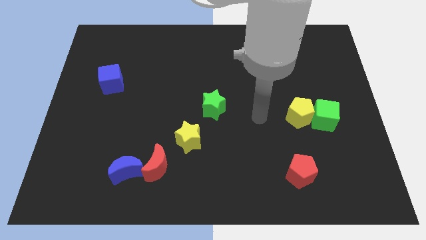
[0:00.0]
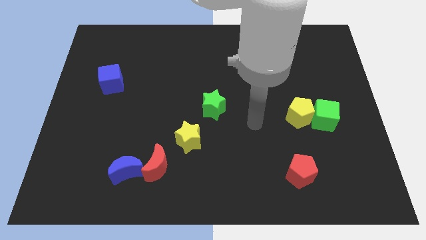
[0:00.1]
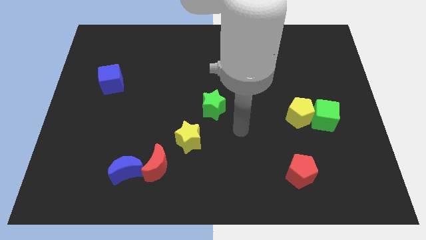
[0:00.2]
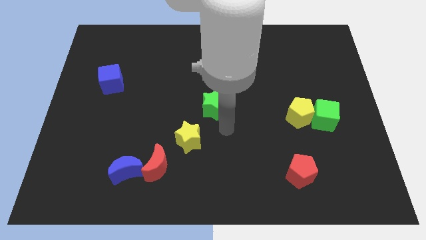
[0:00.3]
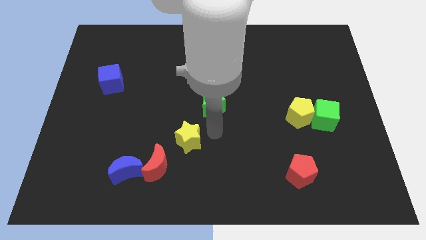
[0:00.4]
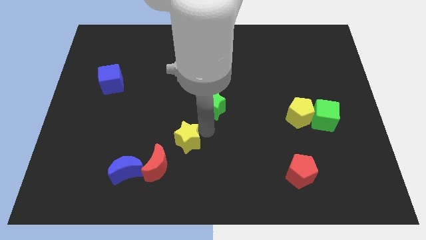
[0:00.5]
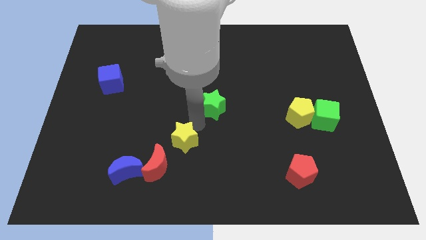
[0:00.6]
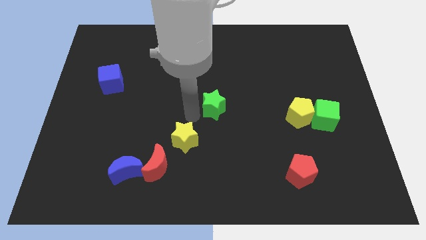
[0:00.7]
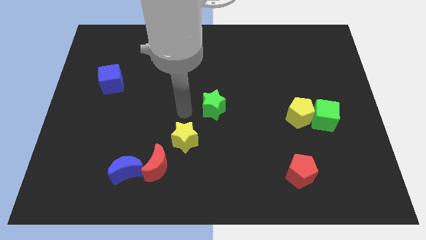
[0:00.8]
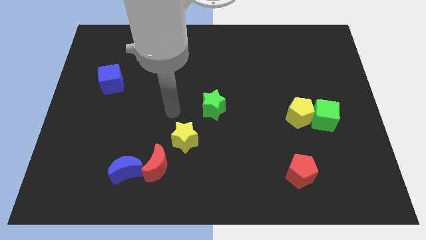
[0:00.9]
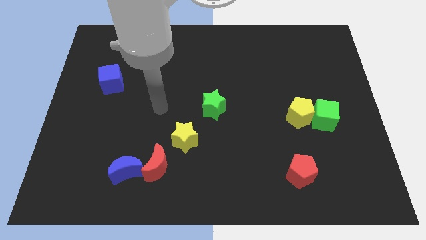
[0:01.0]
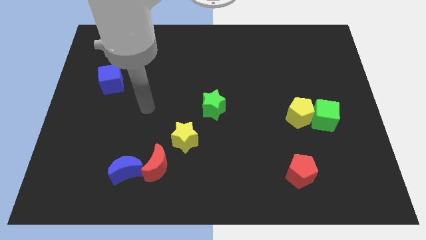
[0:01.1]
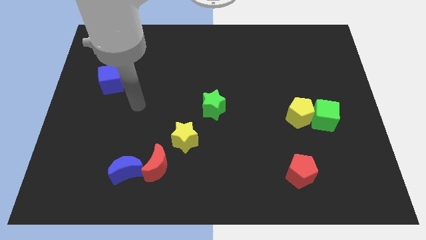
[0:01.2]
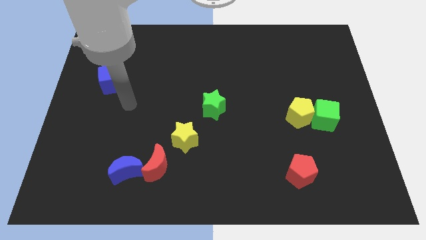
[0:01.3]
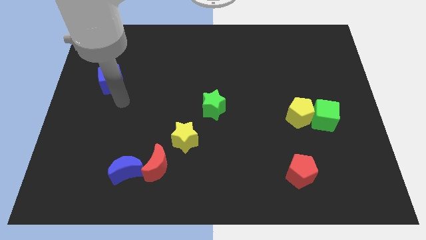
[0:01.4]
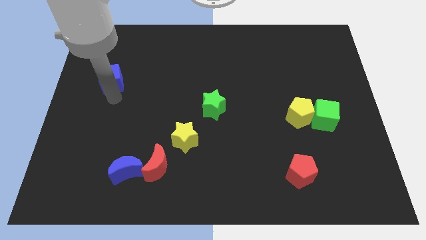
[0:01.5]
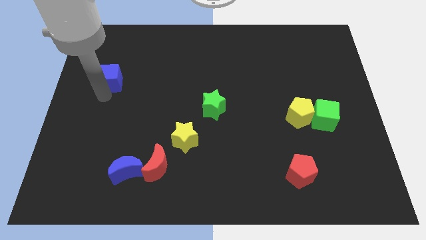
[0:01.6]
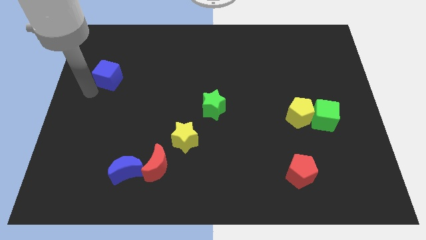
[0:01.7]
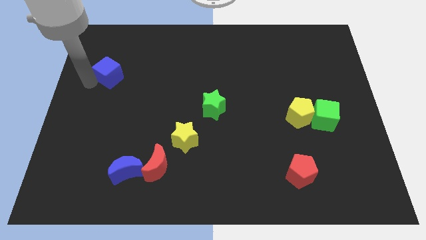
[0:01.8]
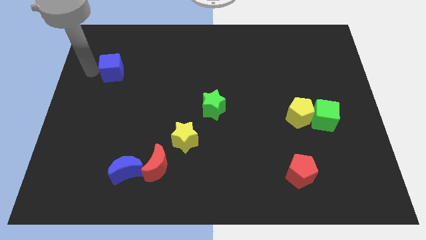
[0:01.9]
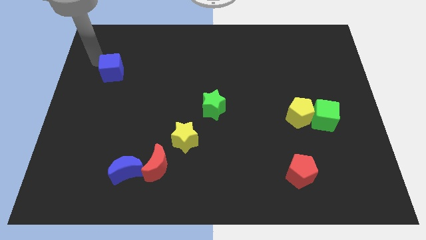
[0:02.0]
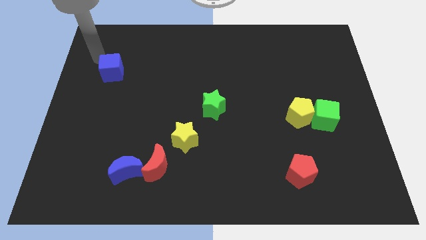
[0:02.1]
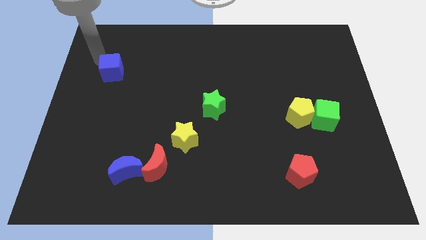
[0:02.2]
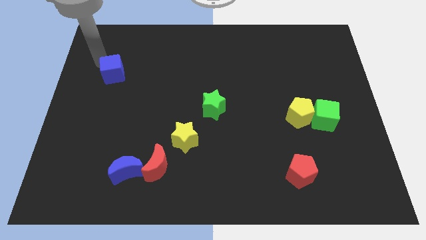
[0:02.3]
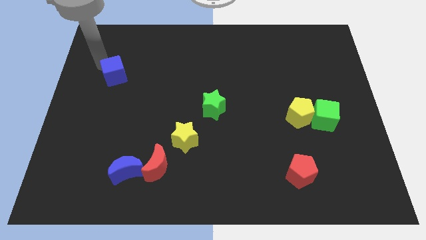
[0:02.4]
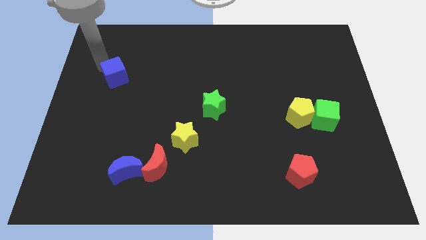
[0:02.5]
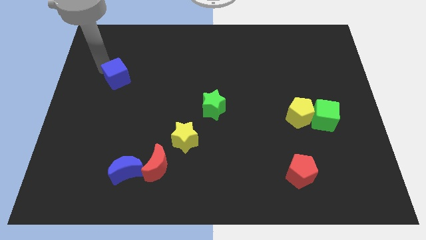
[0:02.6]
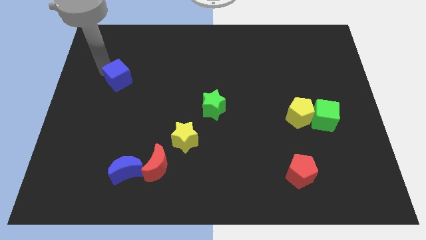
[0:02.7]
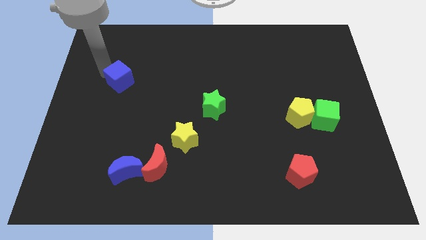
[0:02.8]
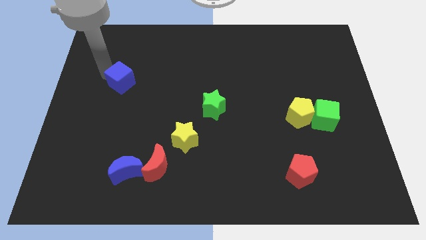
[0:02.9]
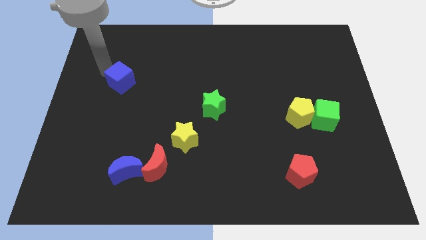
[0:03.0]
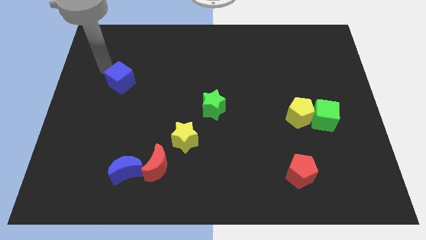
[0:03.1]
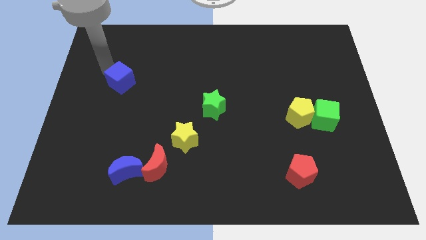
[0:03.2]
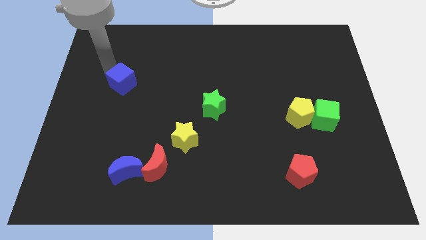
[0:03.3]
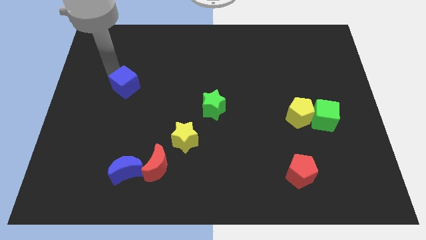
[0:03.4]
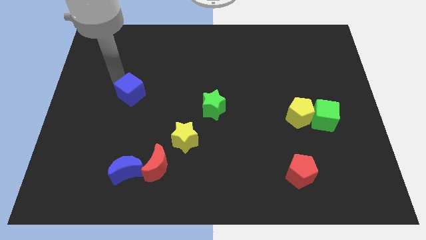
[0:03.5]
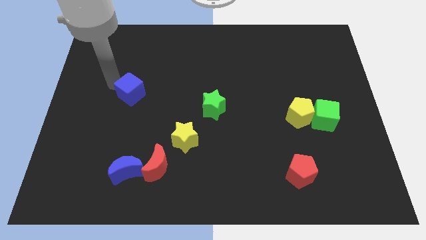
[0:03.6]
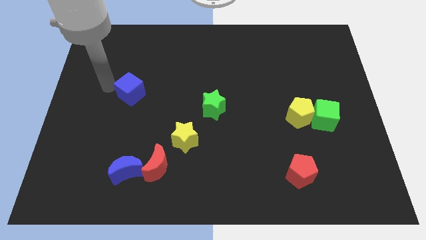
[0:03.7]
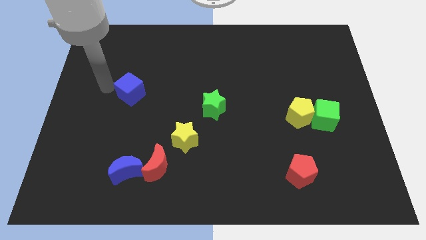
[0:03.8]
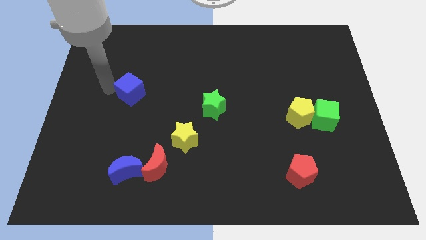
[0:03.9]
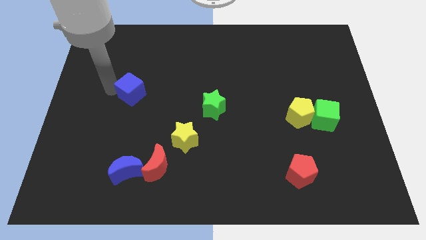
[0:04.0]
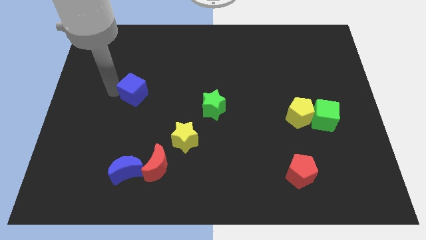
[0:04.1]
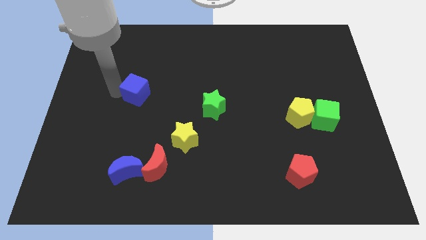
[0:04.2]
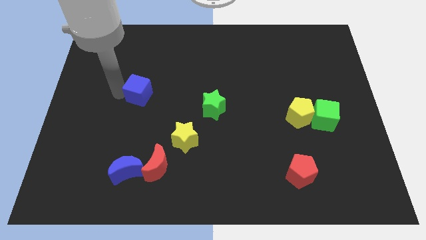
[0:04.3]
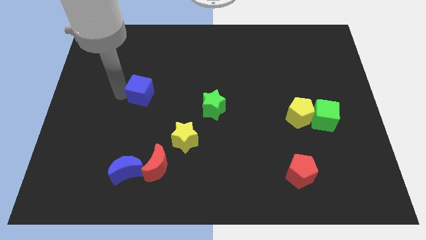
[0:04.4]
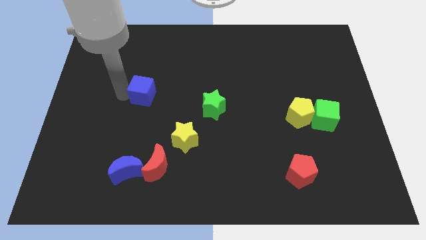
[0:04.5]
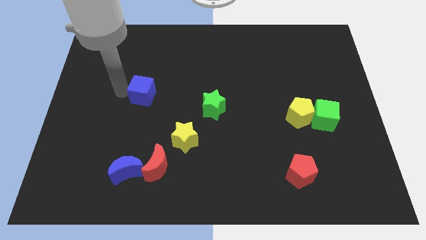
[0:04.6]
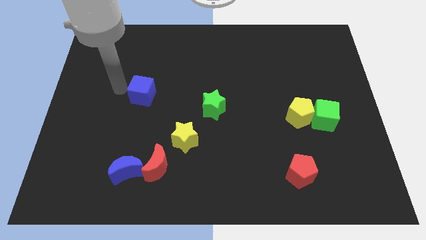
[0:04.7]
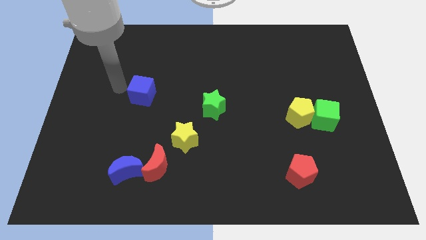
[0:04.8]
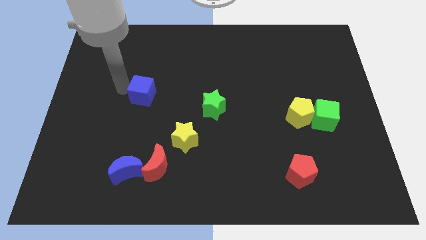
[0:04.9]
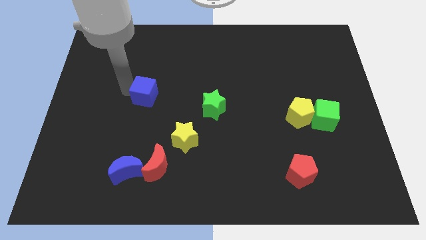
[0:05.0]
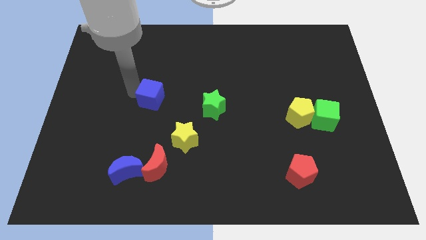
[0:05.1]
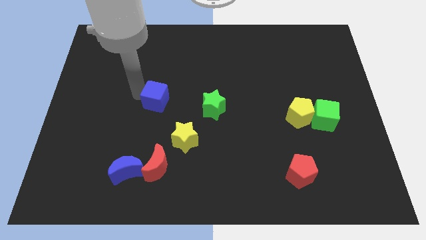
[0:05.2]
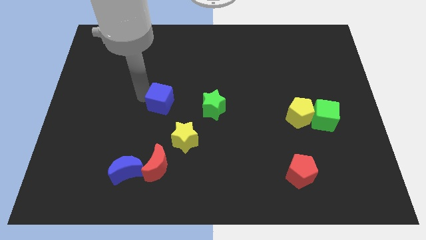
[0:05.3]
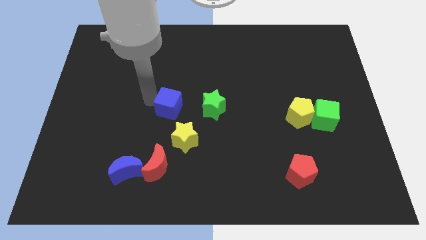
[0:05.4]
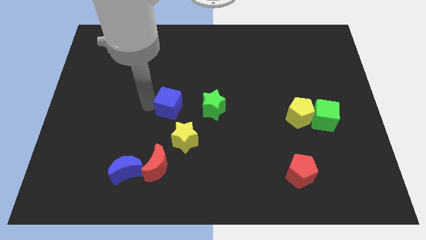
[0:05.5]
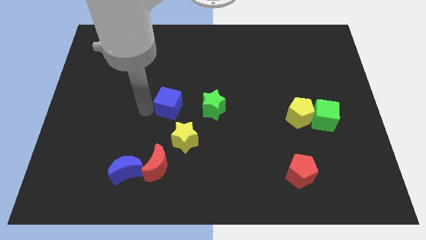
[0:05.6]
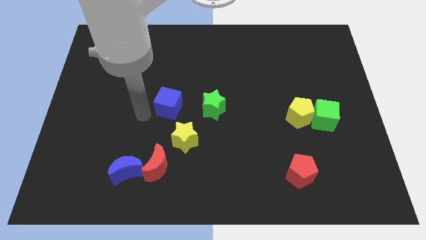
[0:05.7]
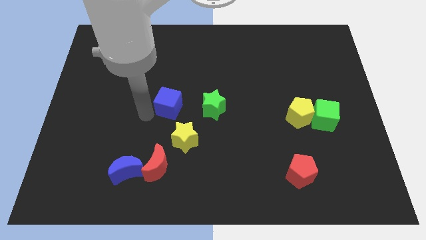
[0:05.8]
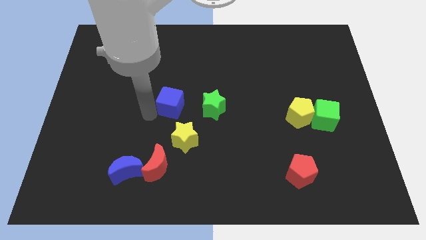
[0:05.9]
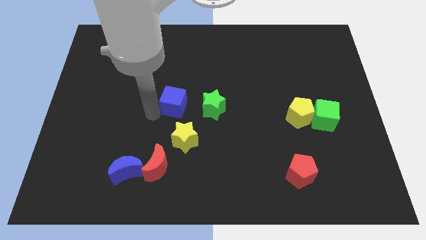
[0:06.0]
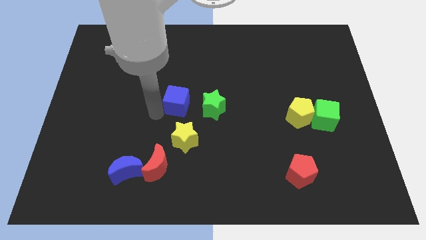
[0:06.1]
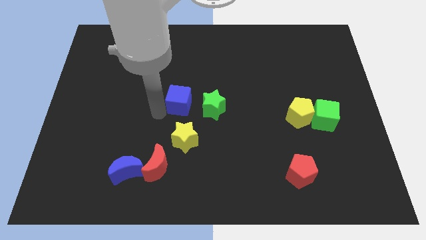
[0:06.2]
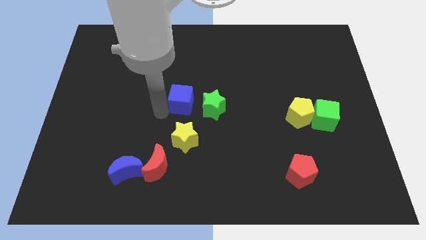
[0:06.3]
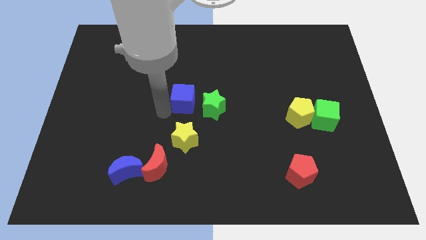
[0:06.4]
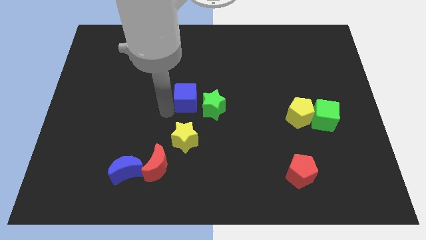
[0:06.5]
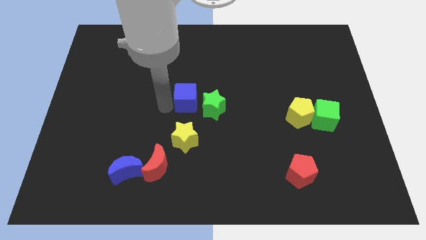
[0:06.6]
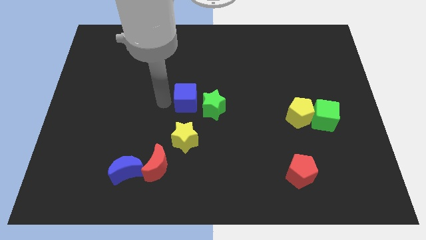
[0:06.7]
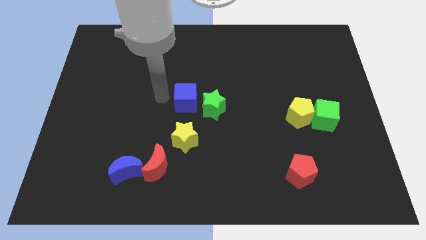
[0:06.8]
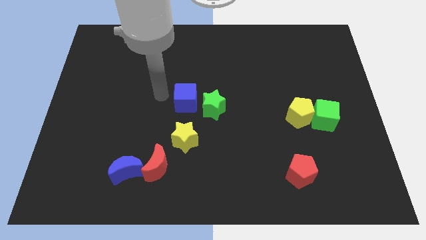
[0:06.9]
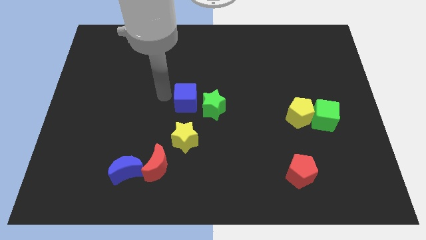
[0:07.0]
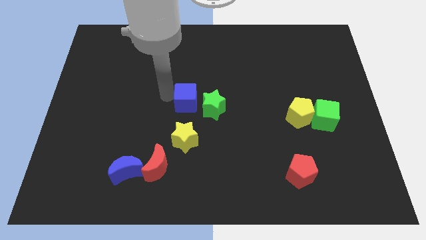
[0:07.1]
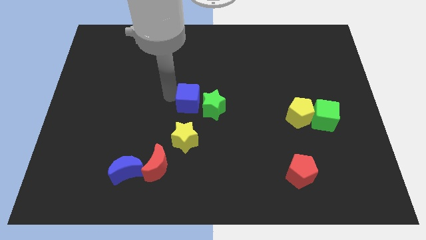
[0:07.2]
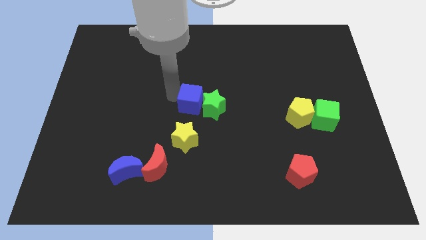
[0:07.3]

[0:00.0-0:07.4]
put the blue cube next to the green star
